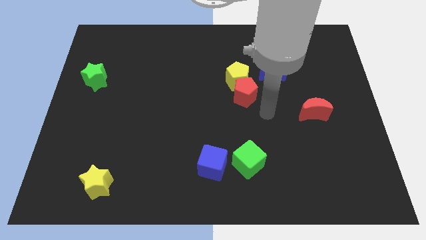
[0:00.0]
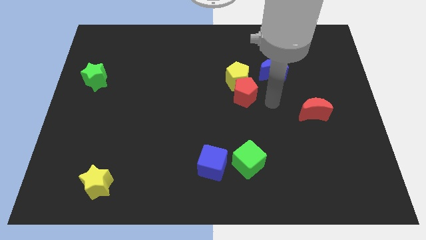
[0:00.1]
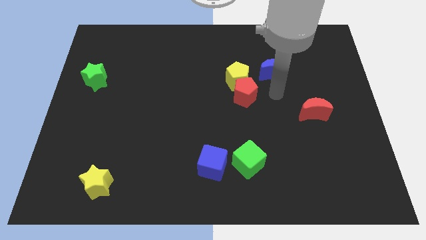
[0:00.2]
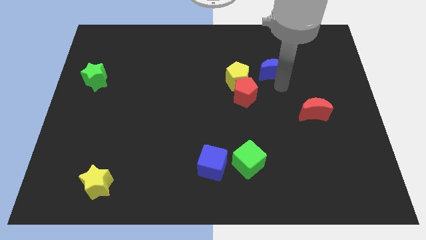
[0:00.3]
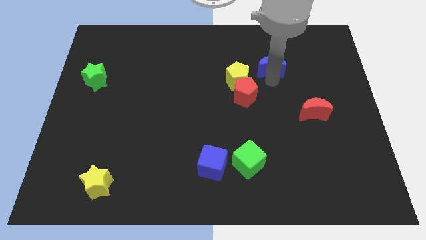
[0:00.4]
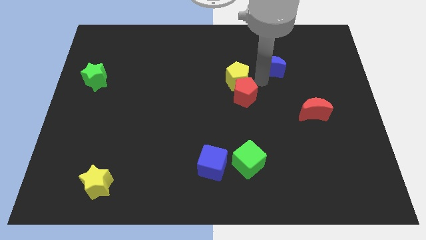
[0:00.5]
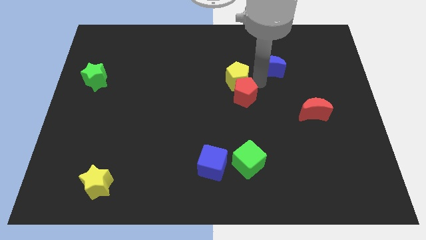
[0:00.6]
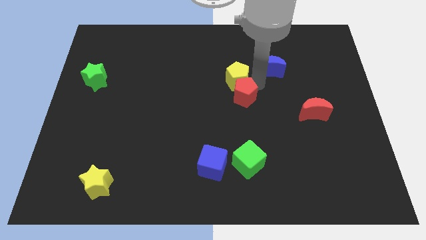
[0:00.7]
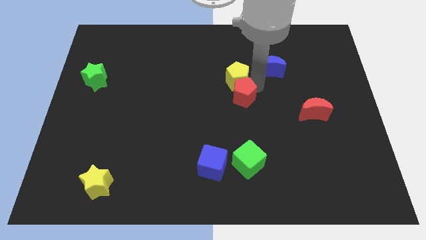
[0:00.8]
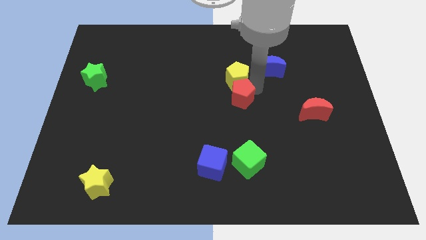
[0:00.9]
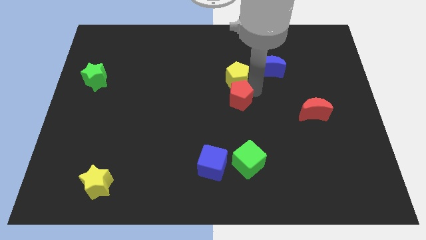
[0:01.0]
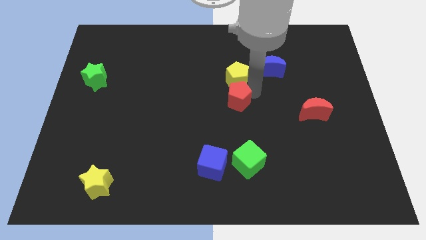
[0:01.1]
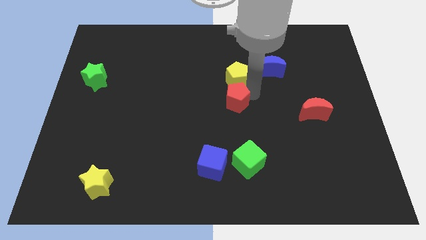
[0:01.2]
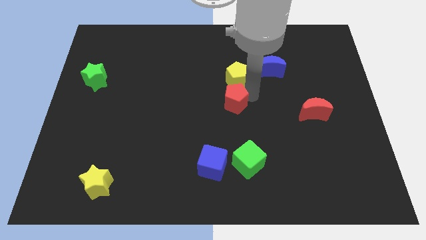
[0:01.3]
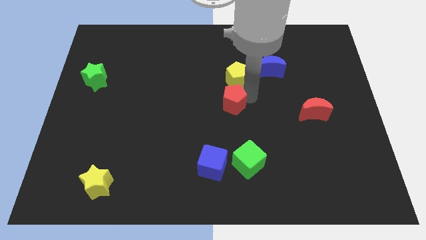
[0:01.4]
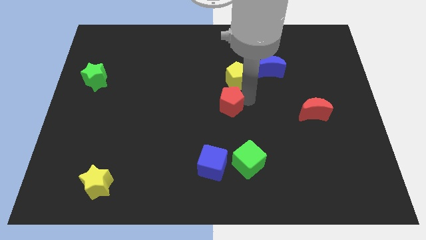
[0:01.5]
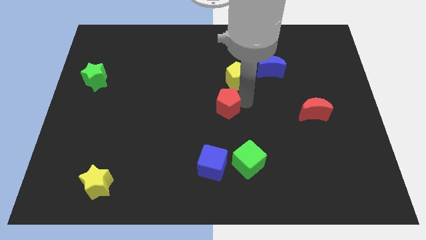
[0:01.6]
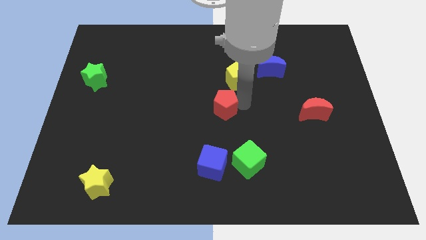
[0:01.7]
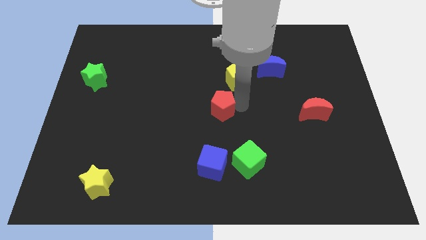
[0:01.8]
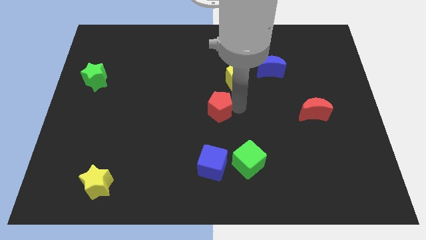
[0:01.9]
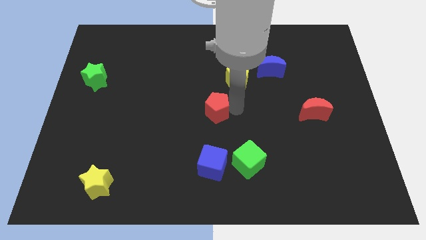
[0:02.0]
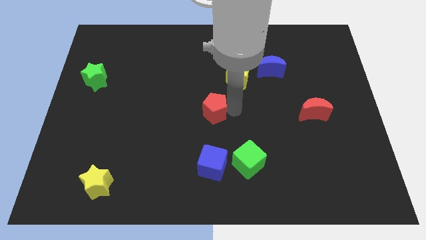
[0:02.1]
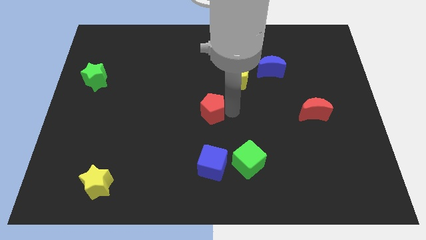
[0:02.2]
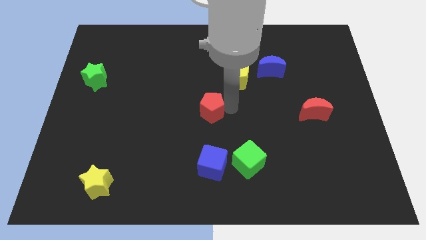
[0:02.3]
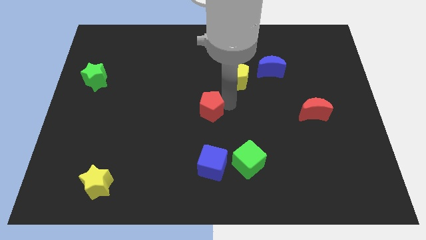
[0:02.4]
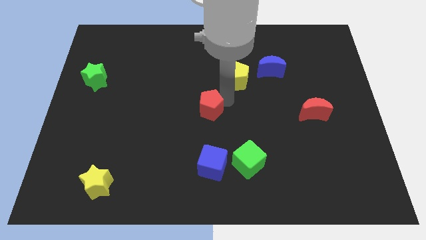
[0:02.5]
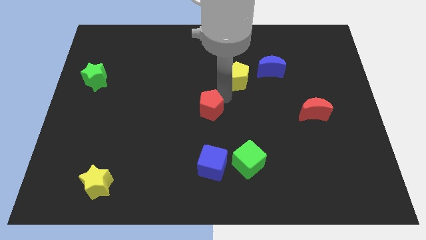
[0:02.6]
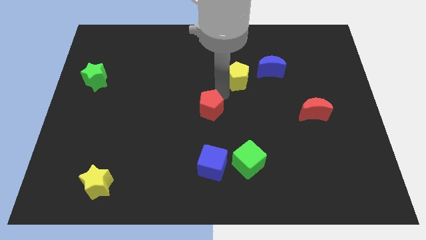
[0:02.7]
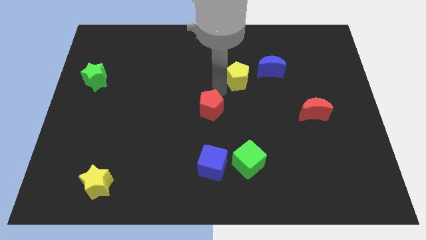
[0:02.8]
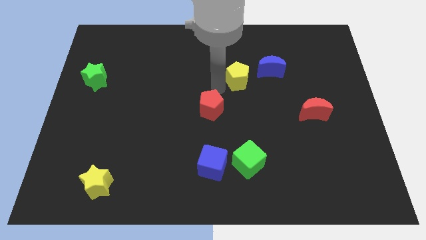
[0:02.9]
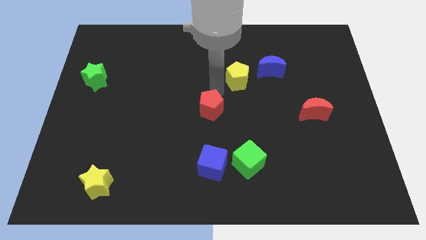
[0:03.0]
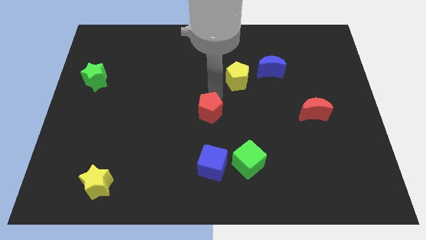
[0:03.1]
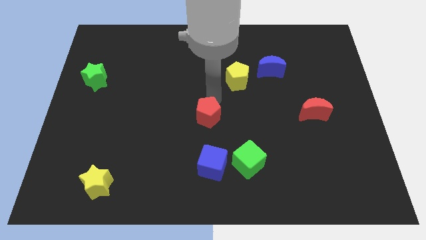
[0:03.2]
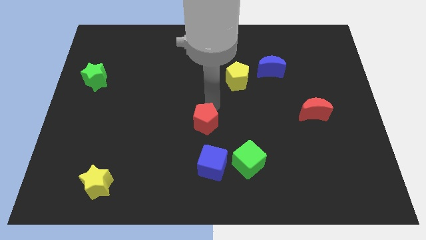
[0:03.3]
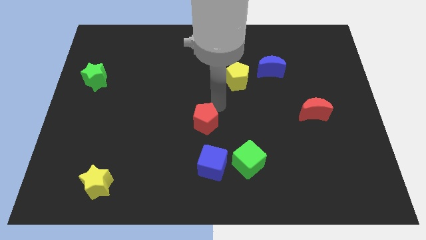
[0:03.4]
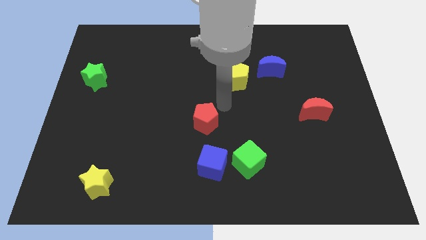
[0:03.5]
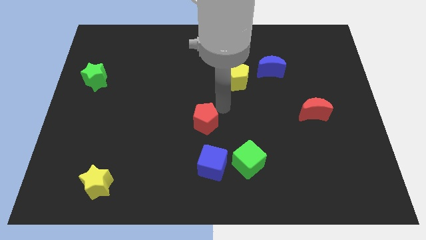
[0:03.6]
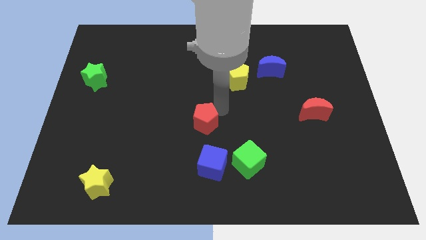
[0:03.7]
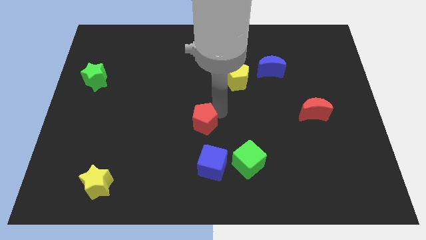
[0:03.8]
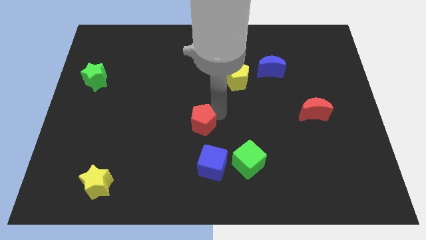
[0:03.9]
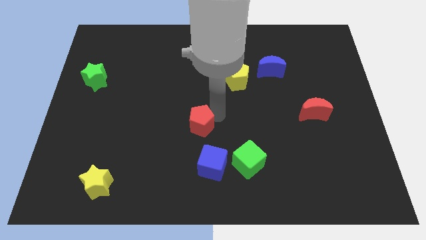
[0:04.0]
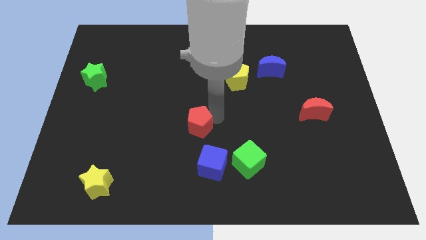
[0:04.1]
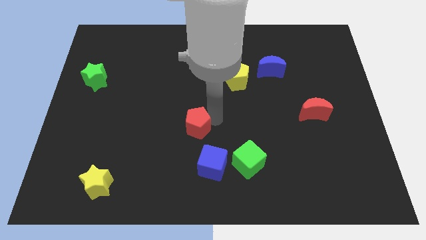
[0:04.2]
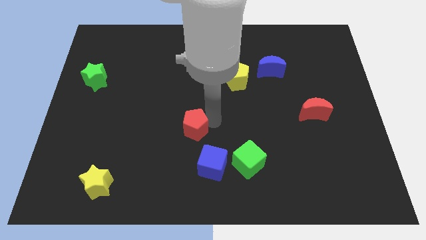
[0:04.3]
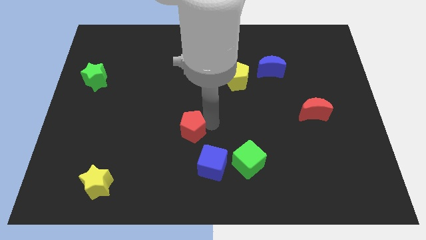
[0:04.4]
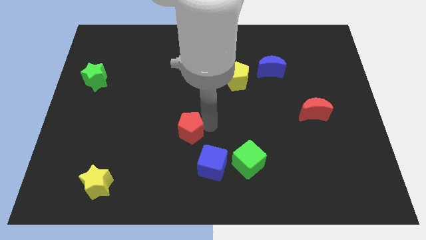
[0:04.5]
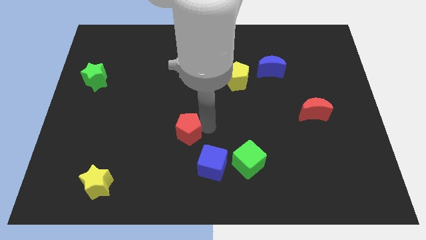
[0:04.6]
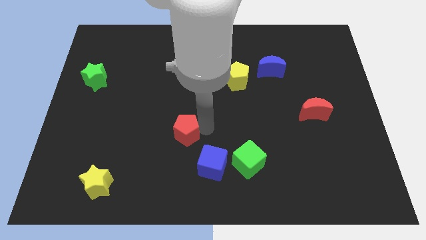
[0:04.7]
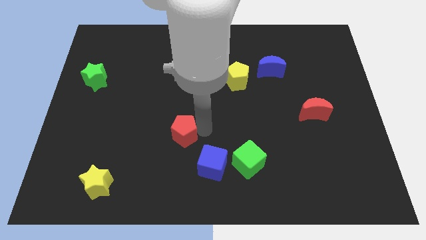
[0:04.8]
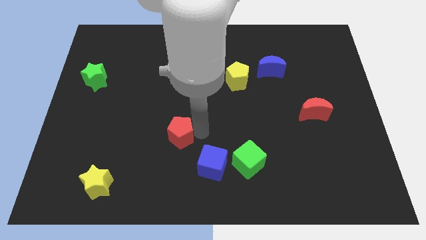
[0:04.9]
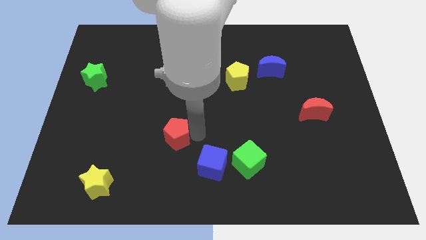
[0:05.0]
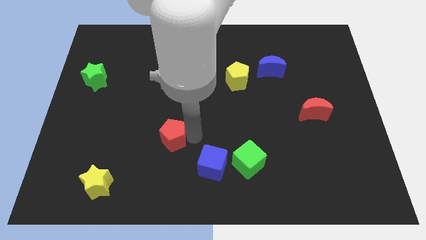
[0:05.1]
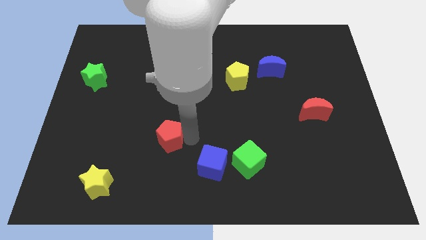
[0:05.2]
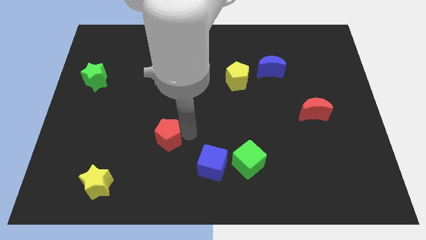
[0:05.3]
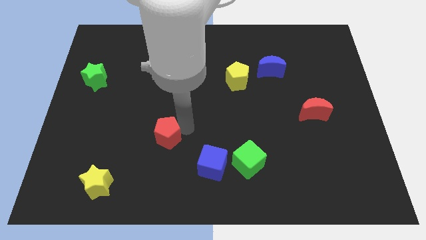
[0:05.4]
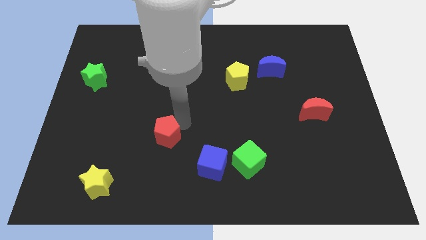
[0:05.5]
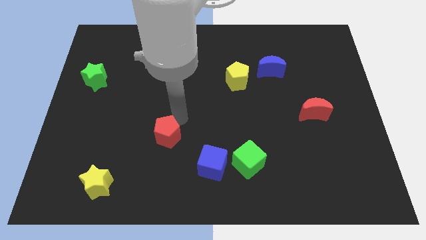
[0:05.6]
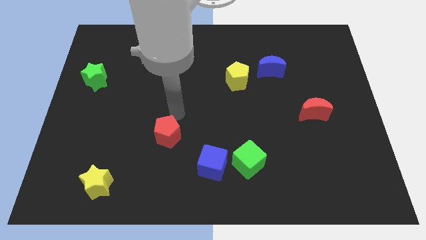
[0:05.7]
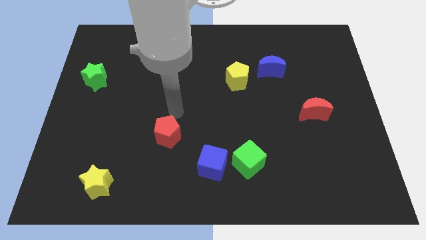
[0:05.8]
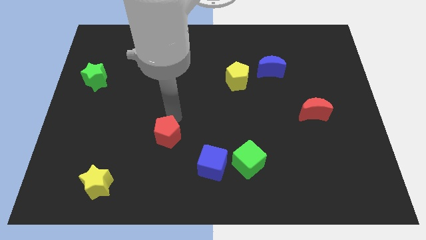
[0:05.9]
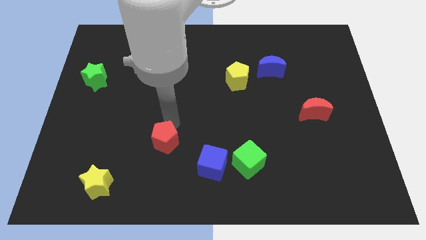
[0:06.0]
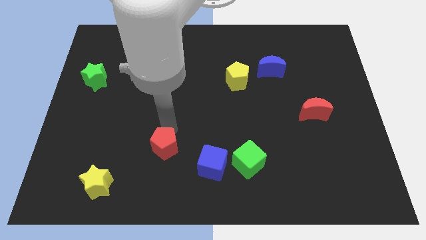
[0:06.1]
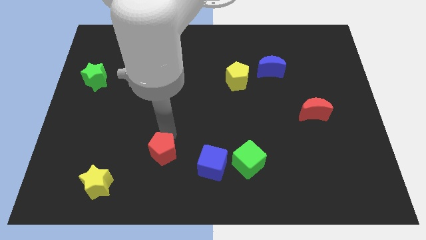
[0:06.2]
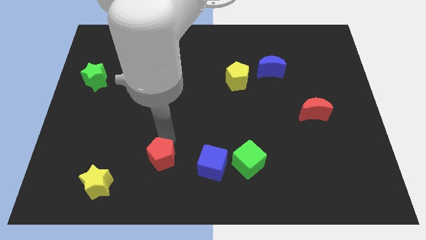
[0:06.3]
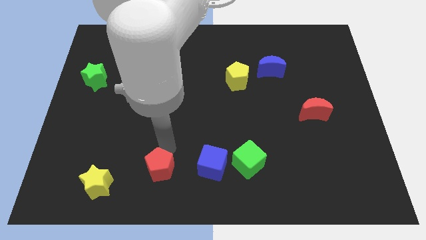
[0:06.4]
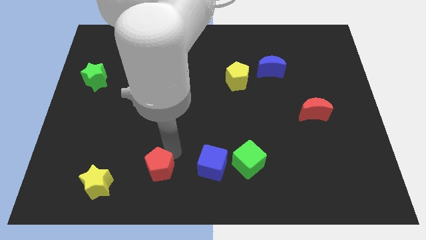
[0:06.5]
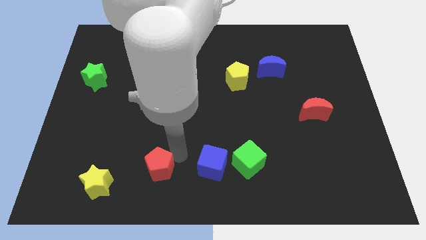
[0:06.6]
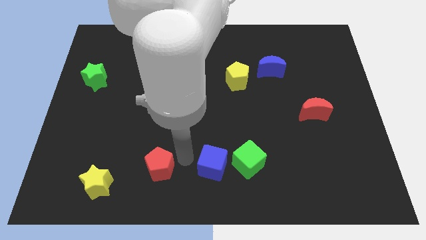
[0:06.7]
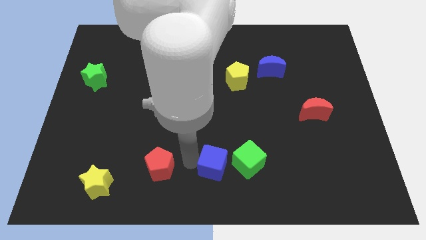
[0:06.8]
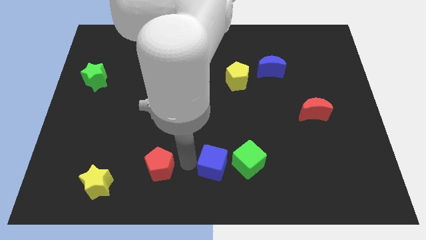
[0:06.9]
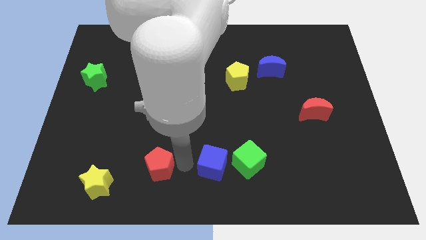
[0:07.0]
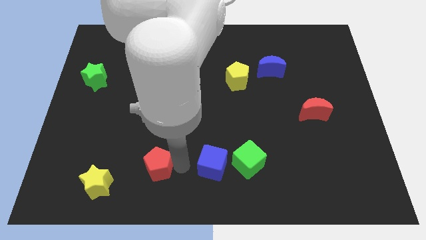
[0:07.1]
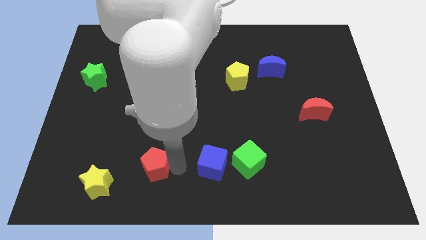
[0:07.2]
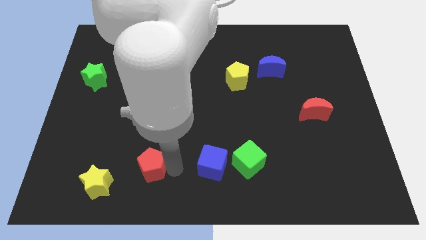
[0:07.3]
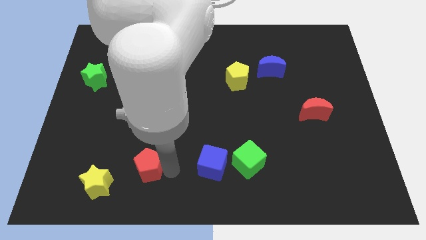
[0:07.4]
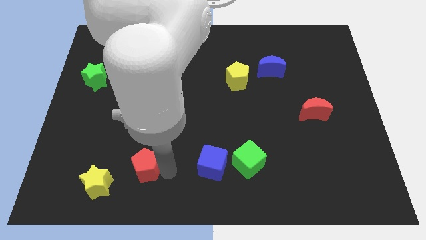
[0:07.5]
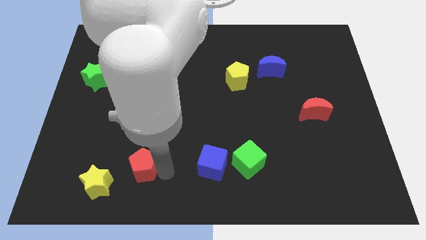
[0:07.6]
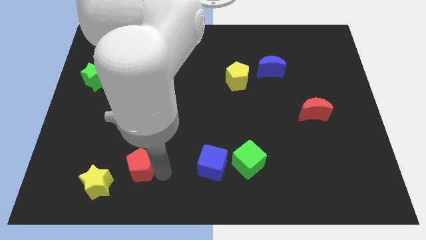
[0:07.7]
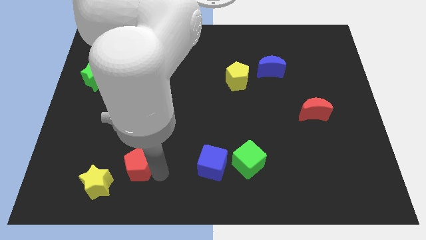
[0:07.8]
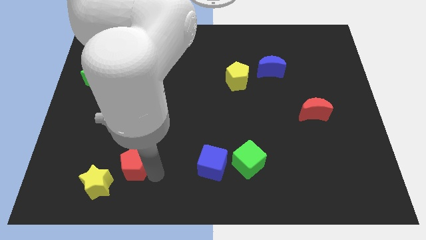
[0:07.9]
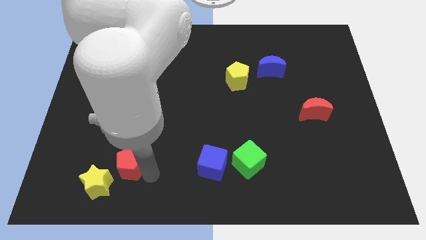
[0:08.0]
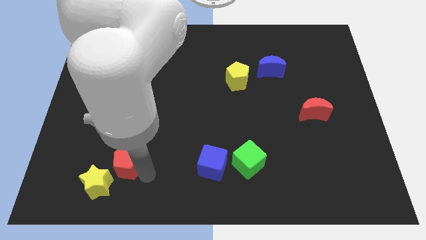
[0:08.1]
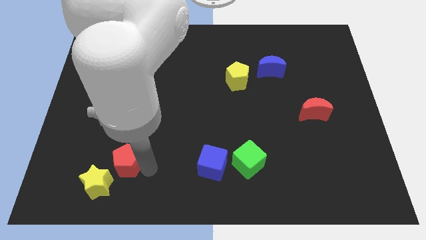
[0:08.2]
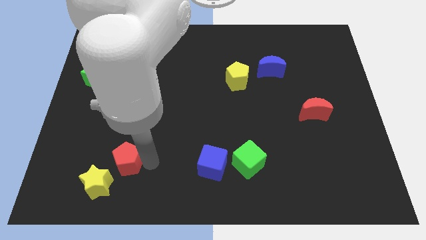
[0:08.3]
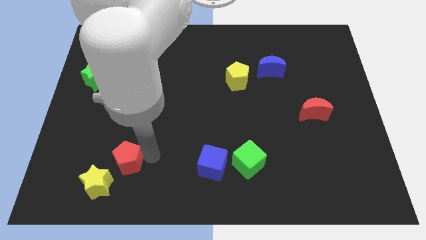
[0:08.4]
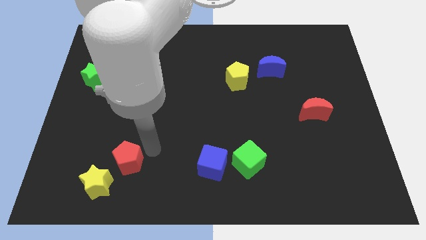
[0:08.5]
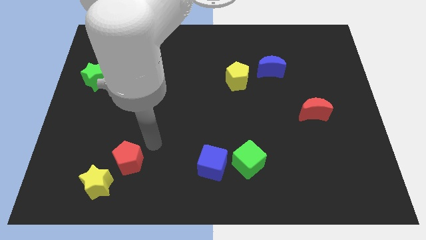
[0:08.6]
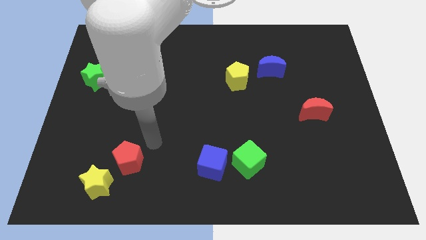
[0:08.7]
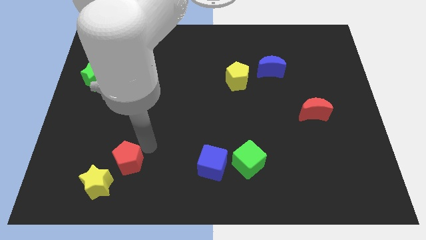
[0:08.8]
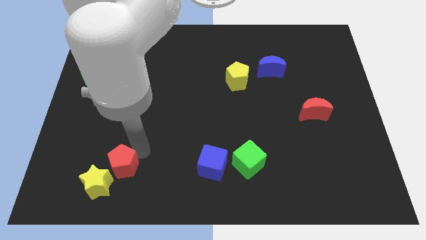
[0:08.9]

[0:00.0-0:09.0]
move the red pentagon close to the yellow star
